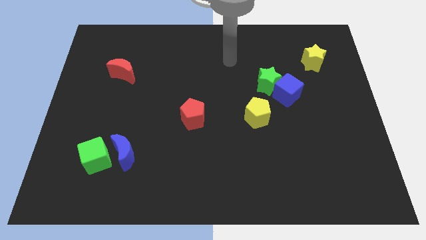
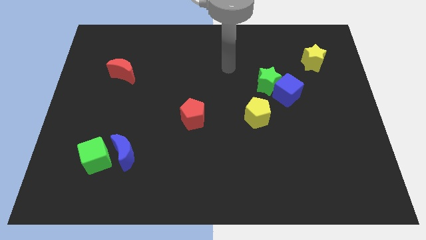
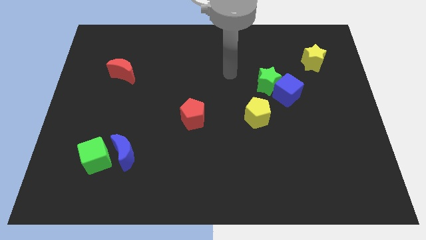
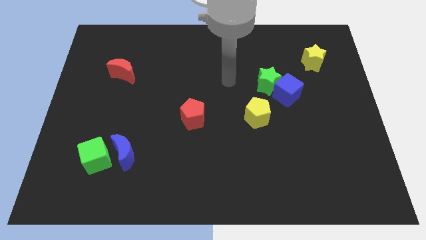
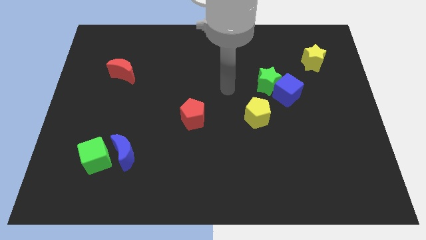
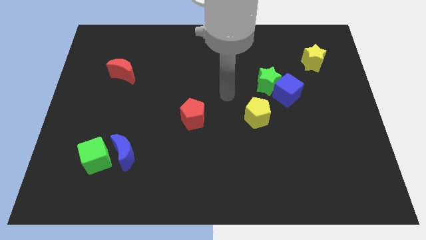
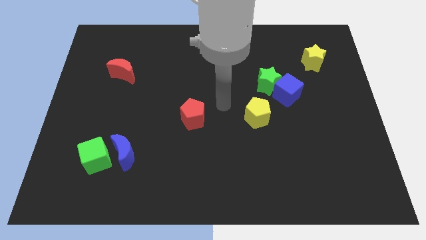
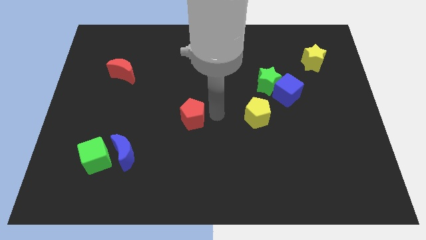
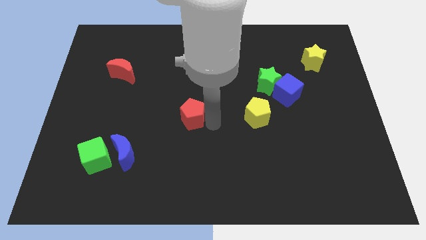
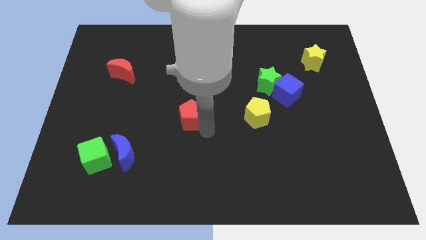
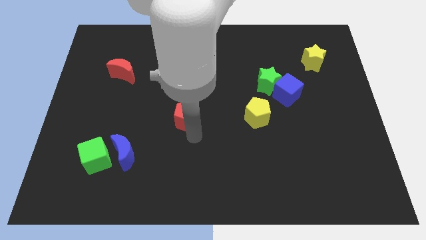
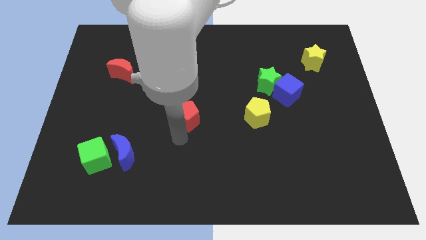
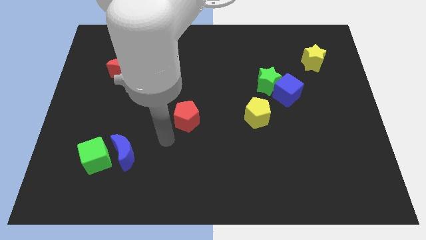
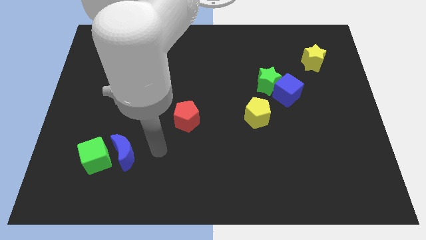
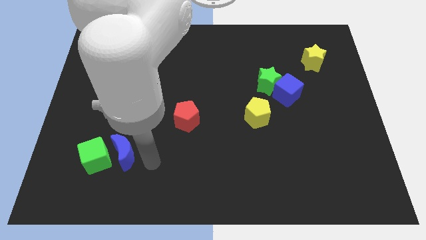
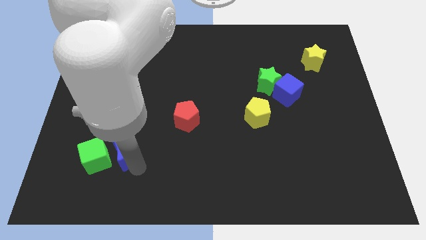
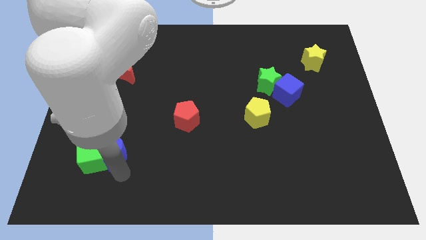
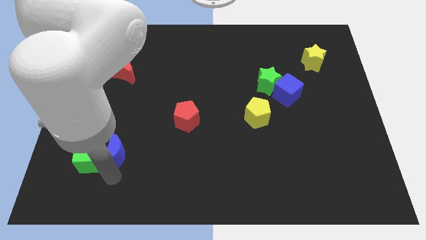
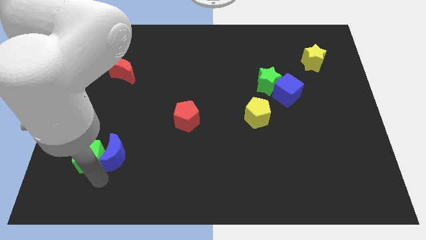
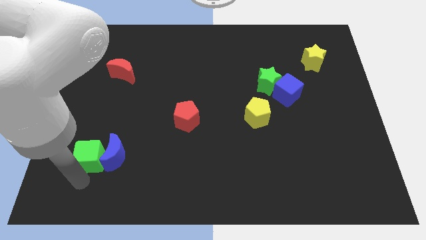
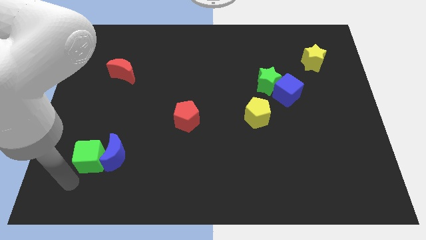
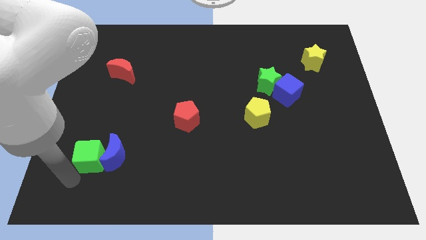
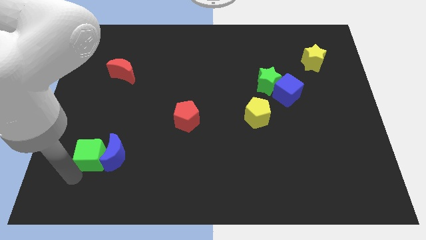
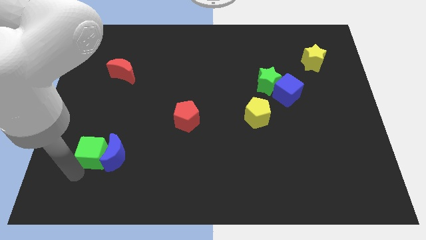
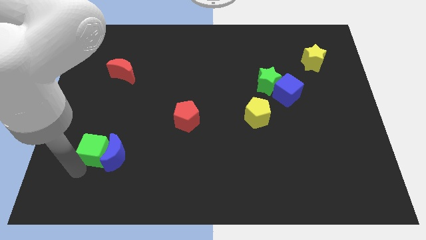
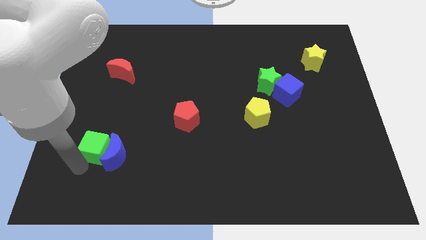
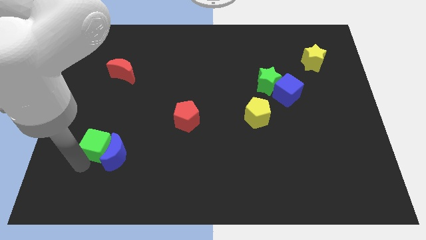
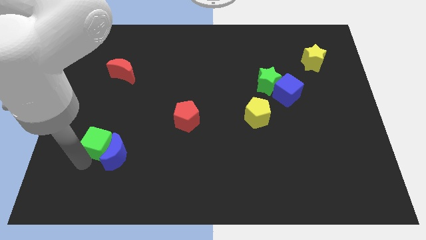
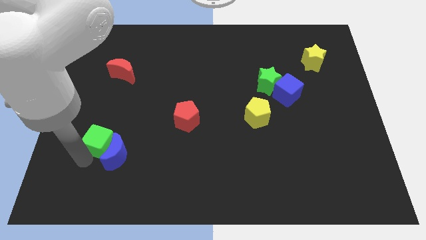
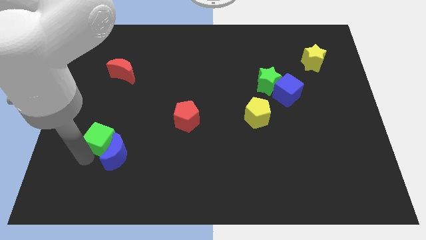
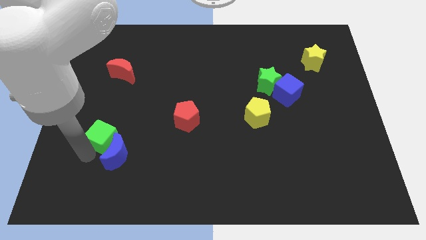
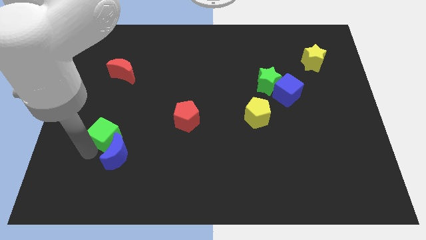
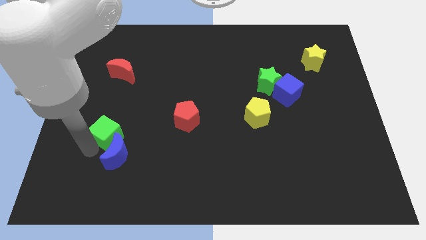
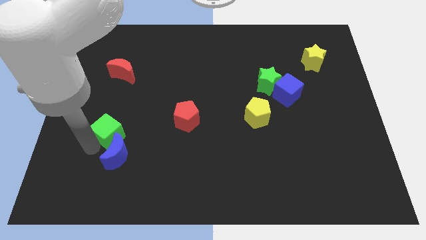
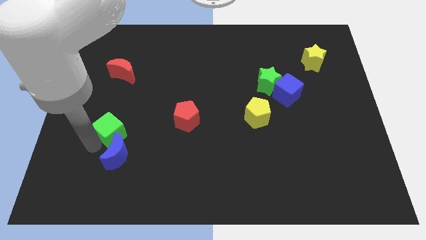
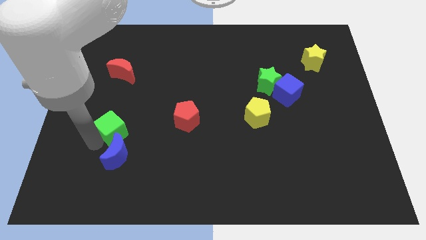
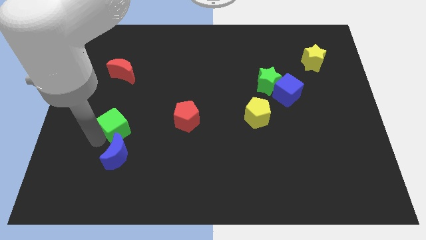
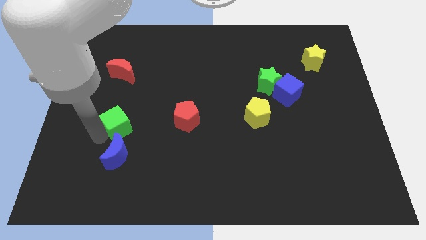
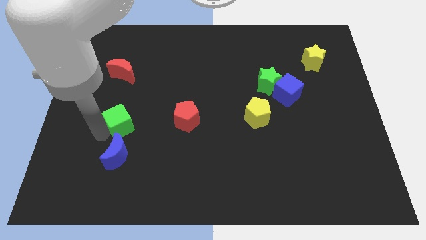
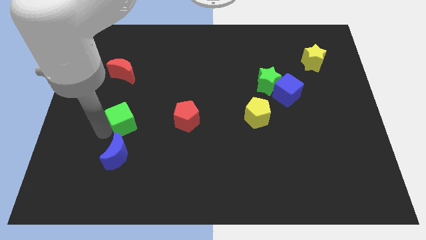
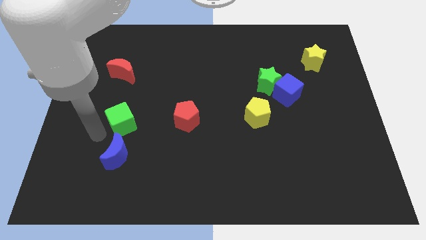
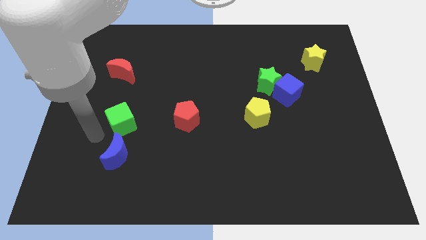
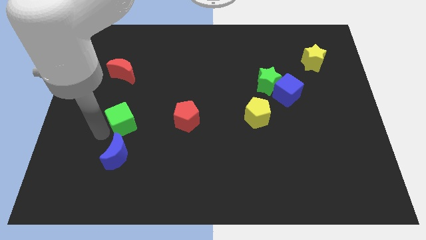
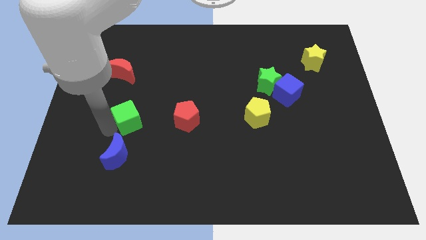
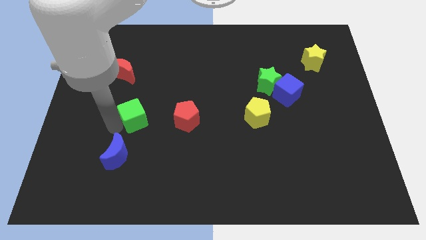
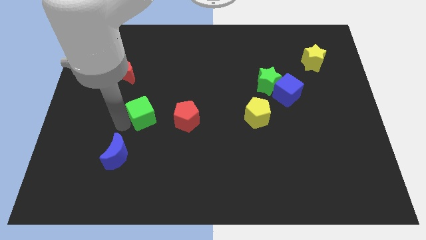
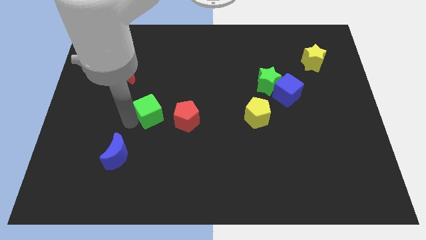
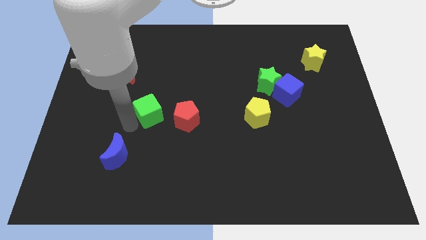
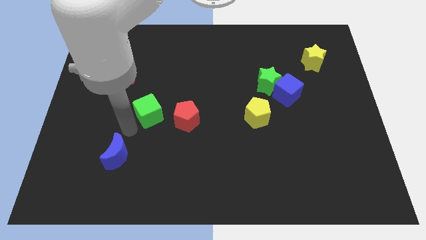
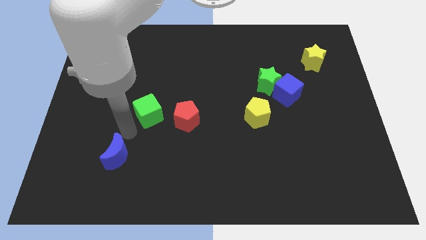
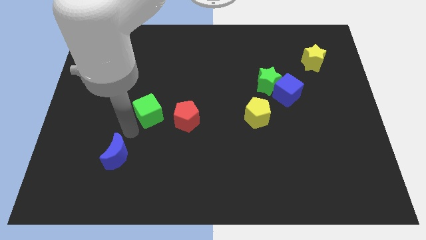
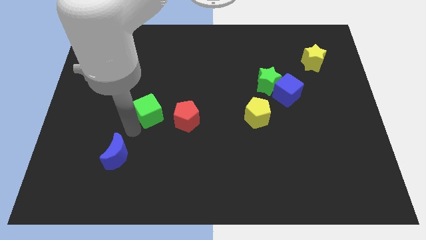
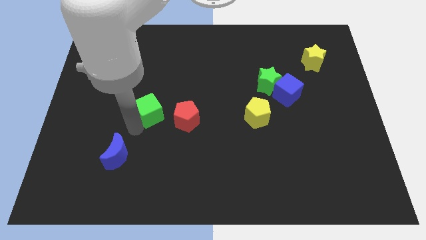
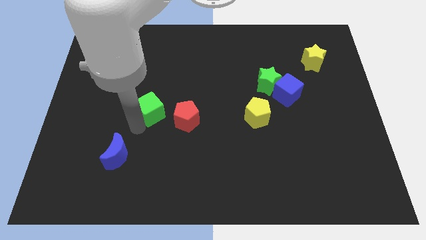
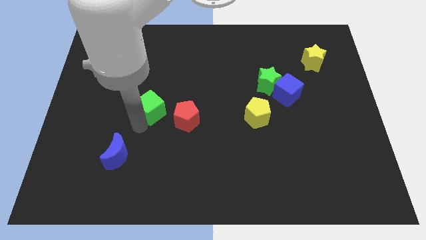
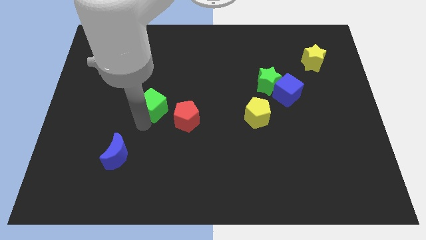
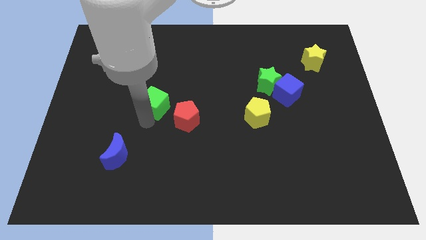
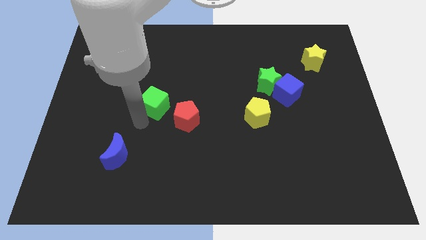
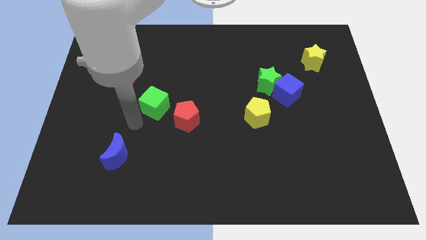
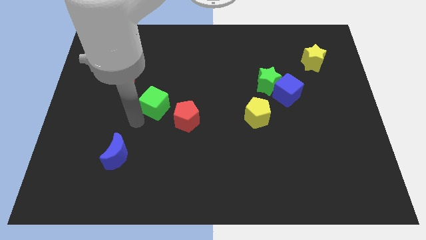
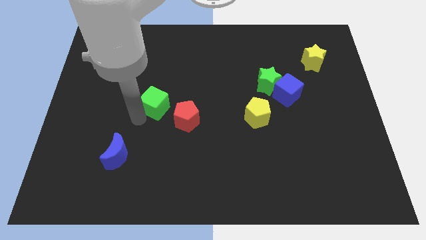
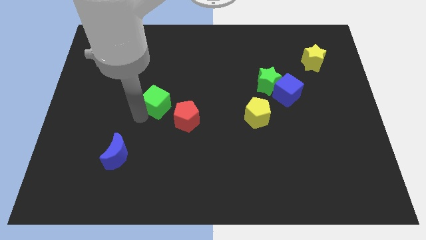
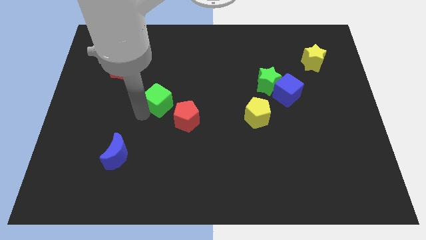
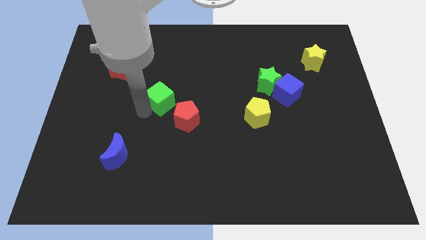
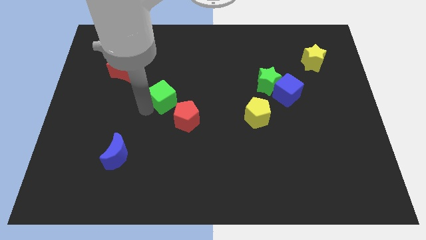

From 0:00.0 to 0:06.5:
push the green cube up and right

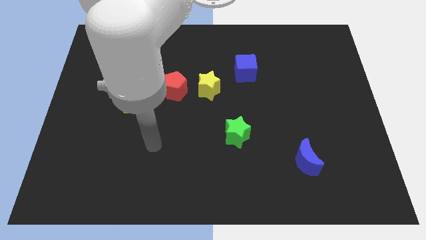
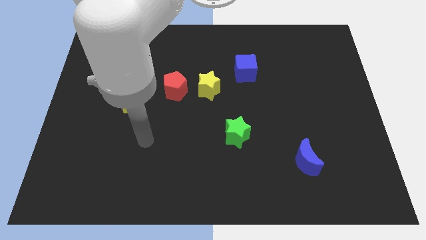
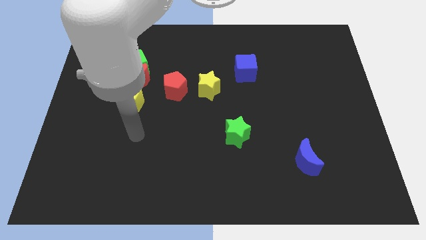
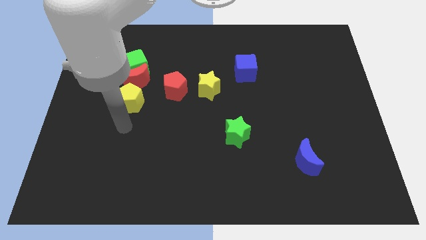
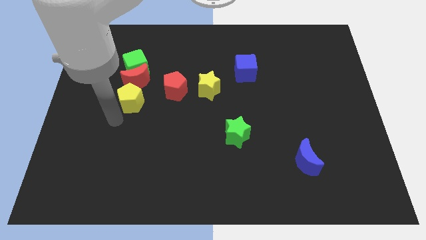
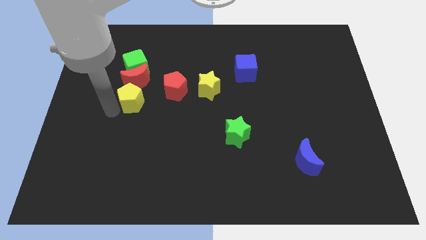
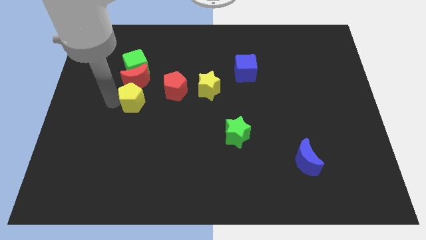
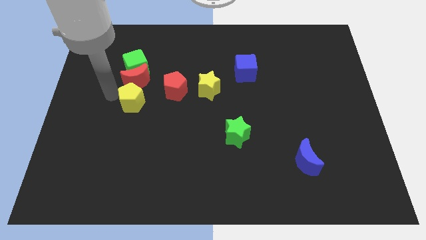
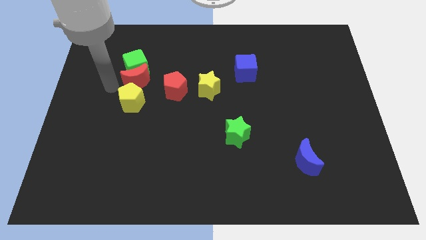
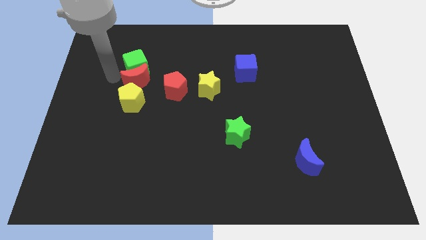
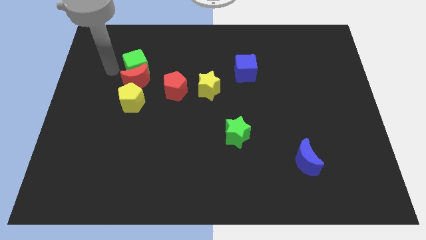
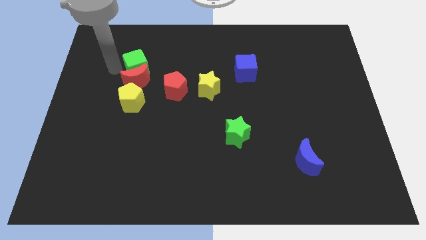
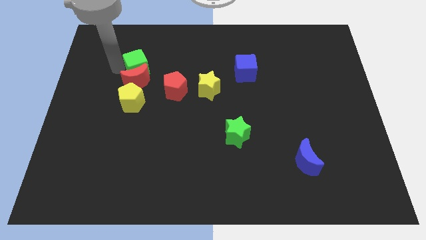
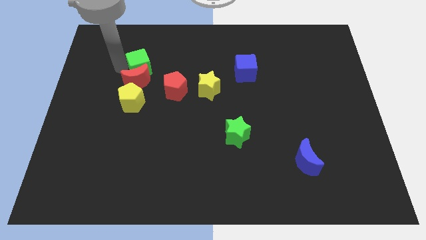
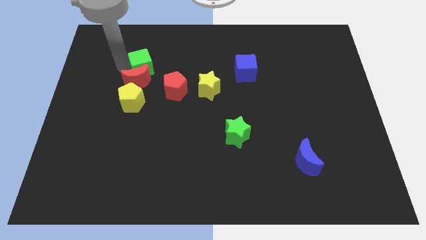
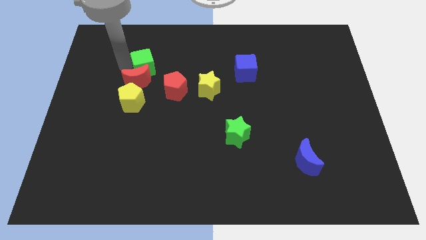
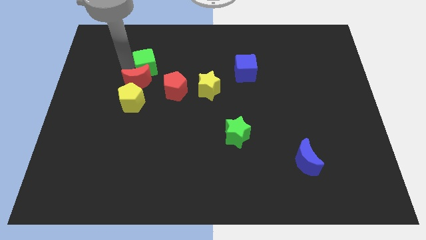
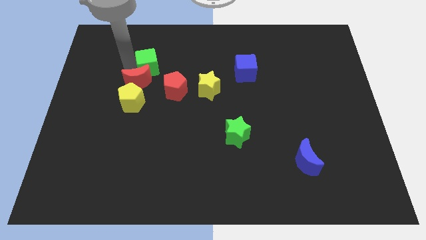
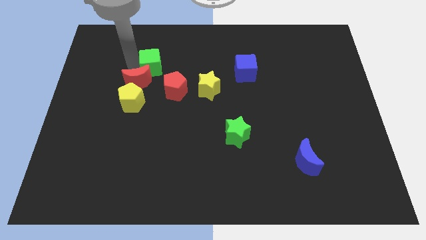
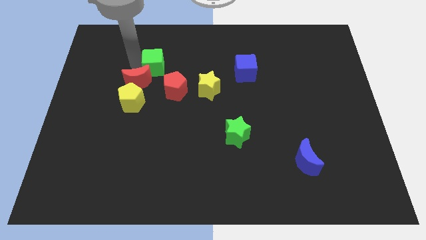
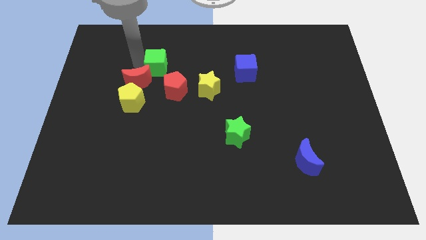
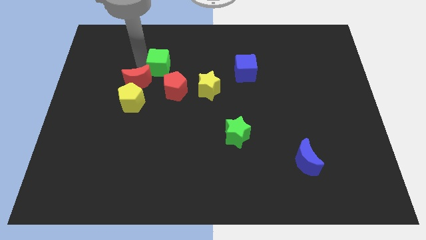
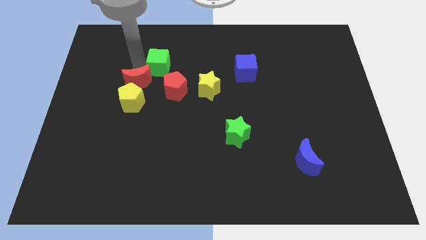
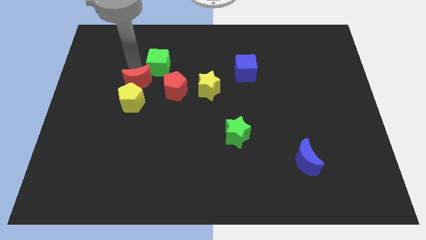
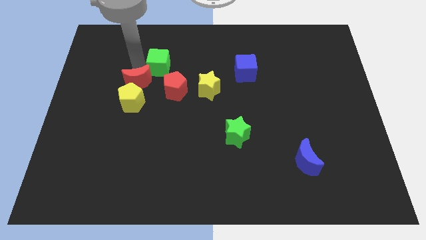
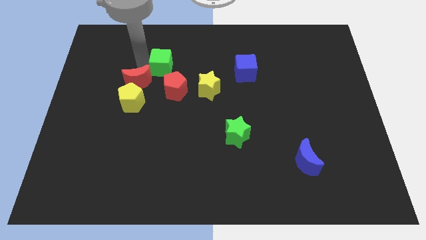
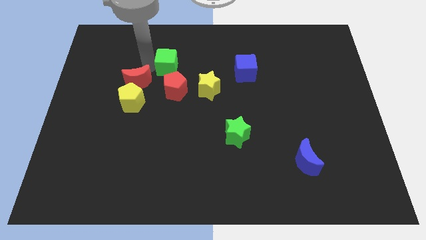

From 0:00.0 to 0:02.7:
move the green cube to the right somewhat
